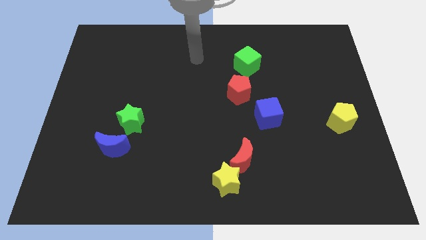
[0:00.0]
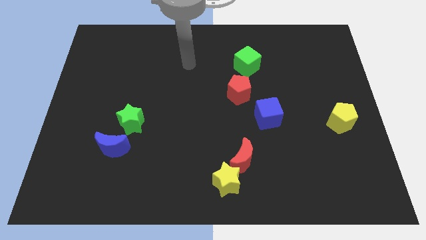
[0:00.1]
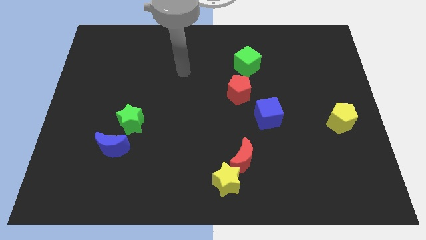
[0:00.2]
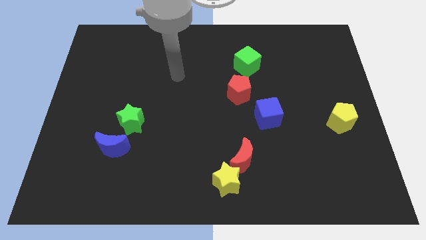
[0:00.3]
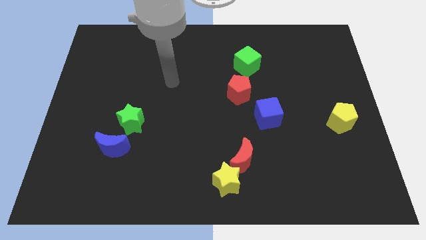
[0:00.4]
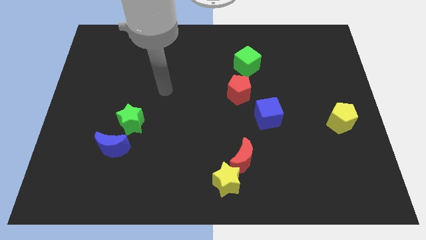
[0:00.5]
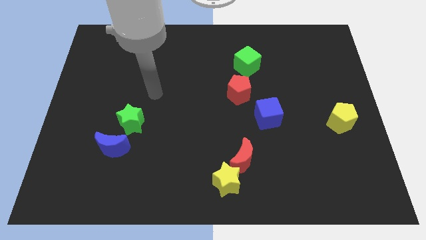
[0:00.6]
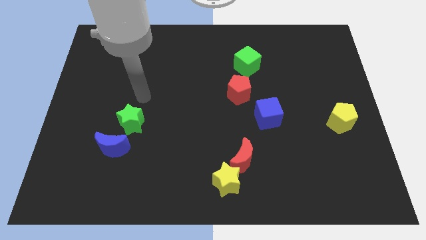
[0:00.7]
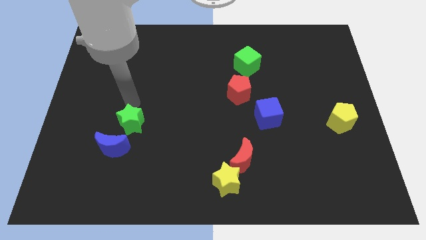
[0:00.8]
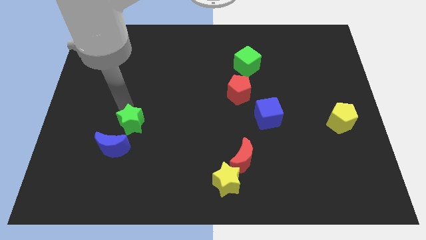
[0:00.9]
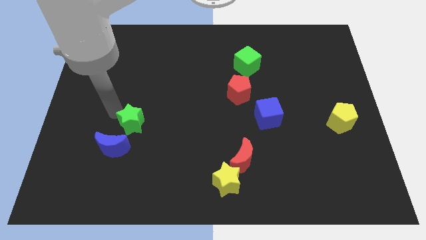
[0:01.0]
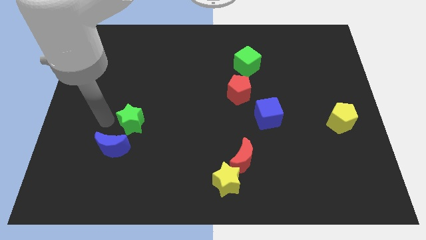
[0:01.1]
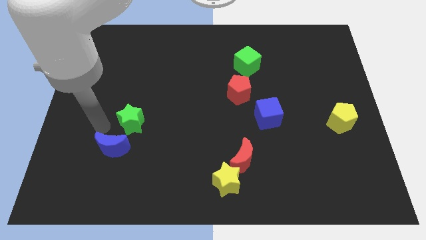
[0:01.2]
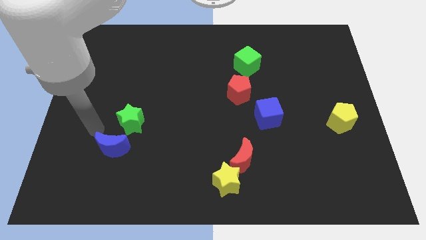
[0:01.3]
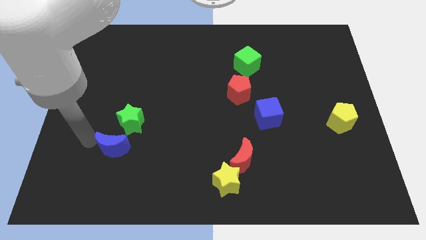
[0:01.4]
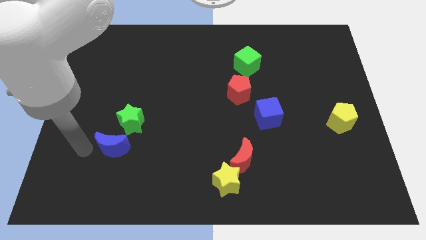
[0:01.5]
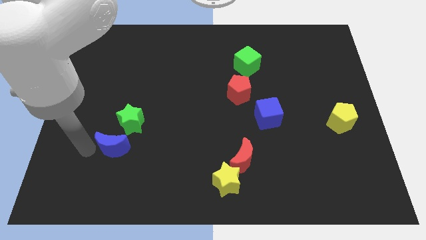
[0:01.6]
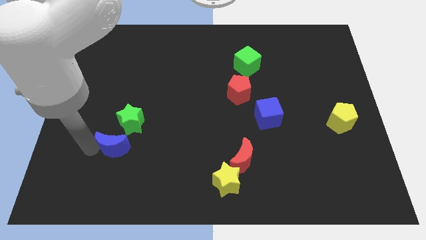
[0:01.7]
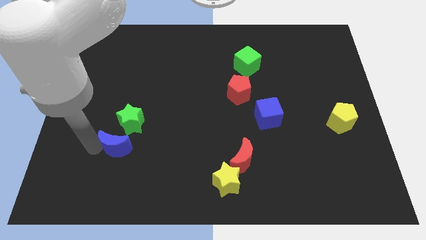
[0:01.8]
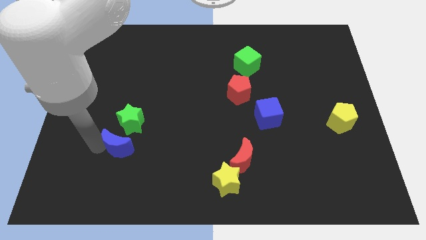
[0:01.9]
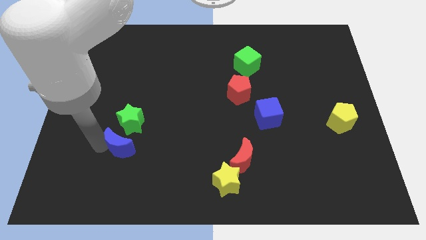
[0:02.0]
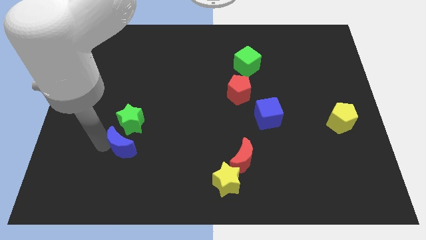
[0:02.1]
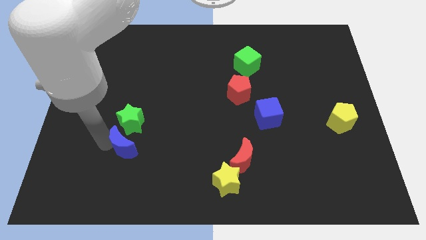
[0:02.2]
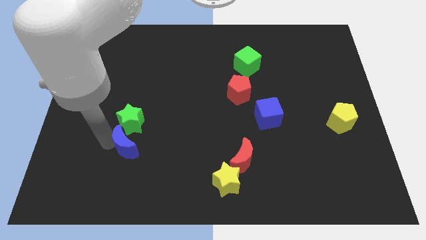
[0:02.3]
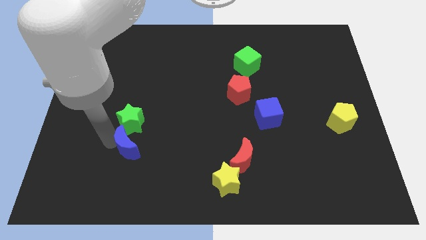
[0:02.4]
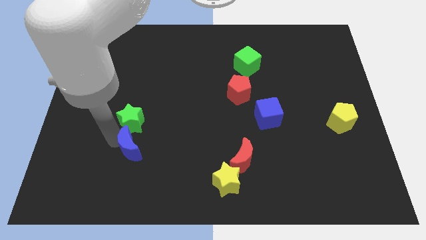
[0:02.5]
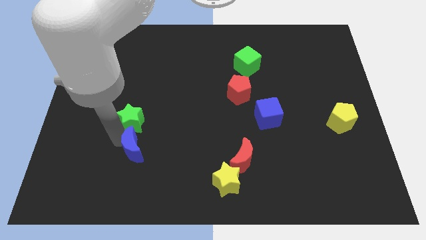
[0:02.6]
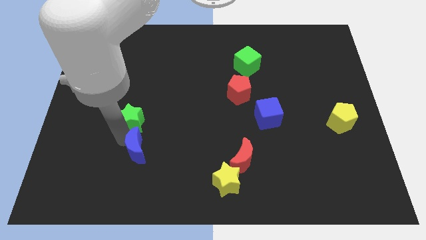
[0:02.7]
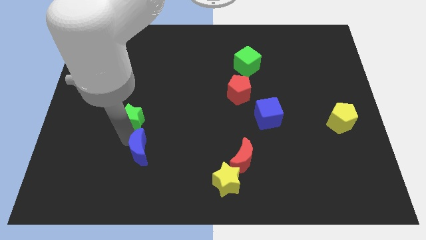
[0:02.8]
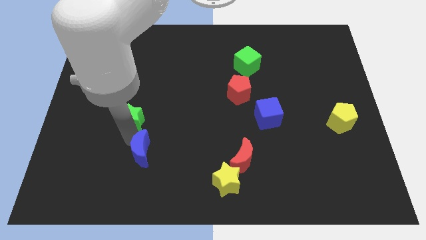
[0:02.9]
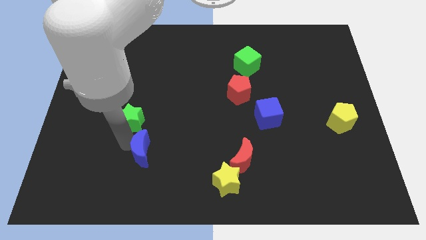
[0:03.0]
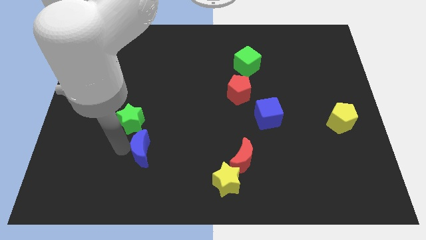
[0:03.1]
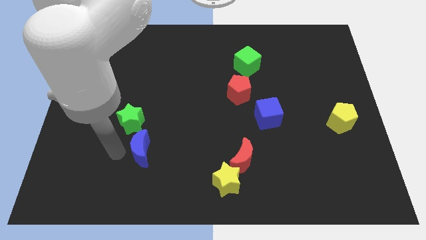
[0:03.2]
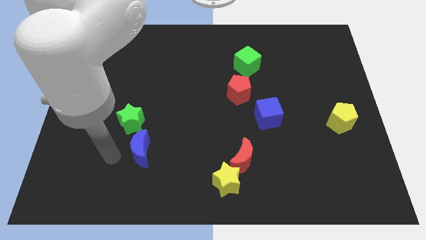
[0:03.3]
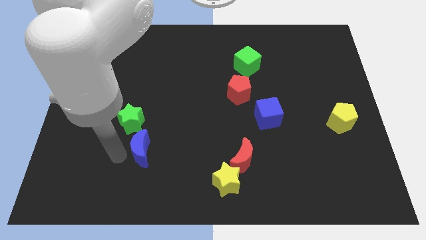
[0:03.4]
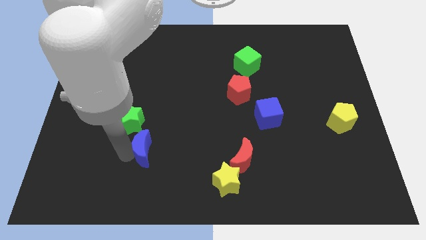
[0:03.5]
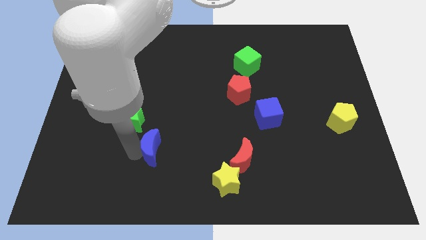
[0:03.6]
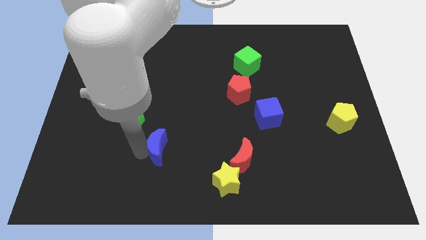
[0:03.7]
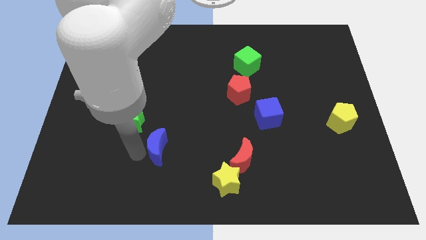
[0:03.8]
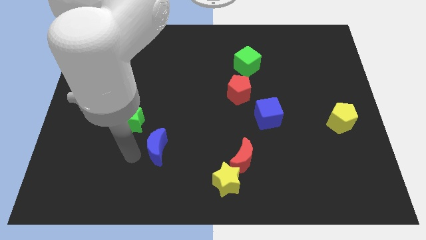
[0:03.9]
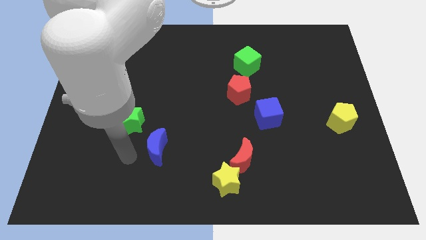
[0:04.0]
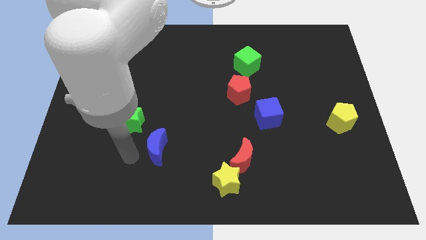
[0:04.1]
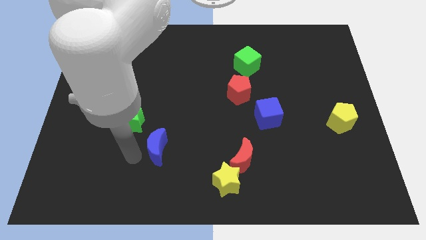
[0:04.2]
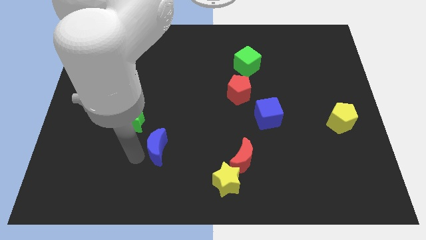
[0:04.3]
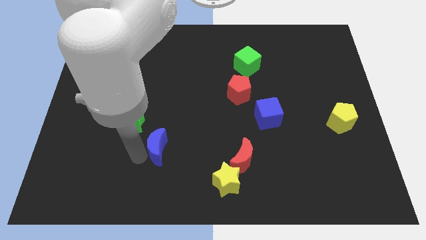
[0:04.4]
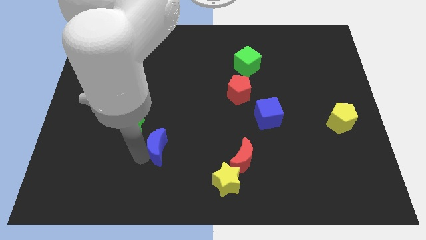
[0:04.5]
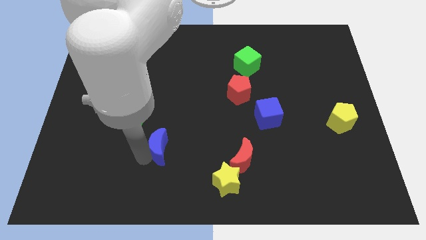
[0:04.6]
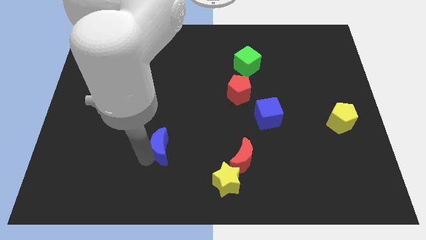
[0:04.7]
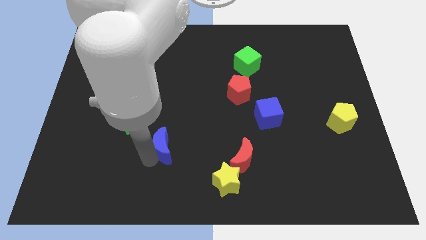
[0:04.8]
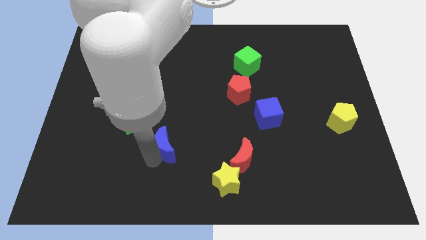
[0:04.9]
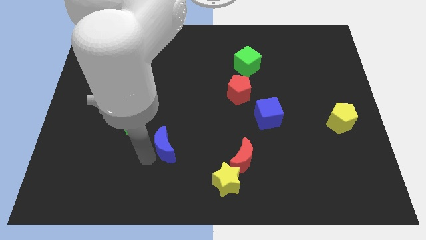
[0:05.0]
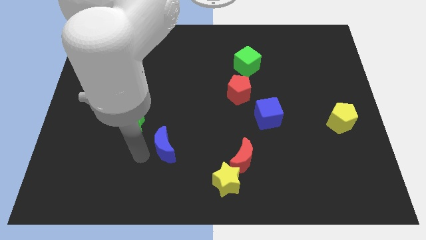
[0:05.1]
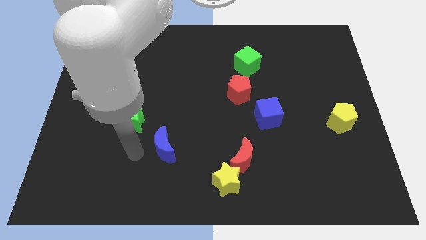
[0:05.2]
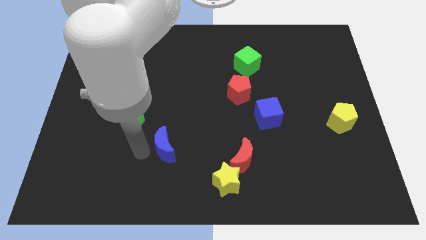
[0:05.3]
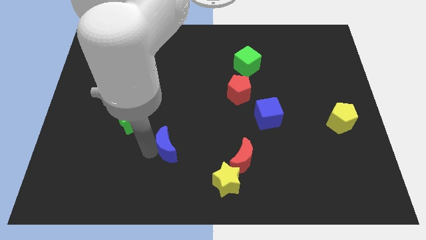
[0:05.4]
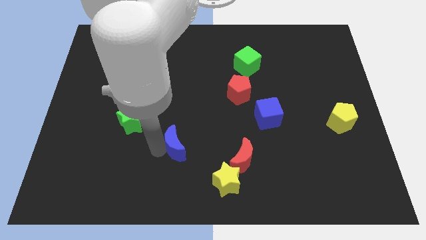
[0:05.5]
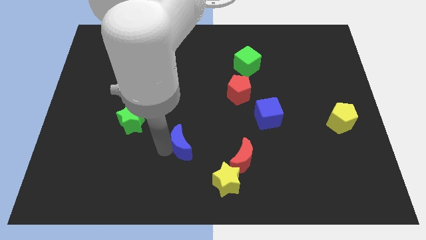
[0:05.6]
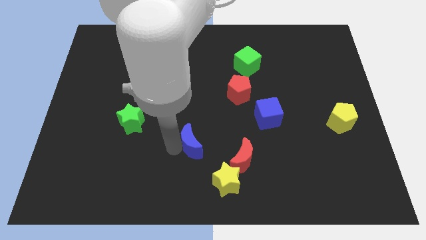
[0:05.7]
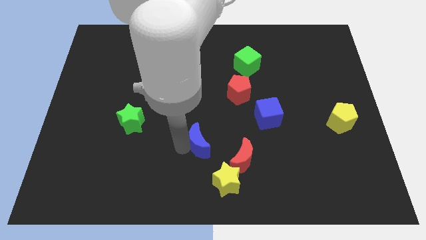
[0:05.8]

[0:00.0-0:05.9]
put the blue moon diagonally up and to the left of the red moon

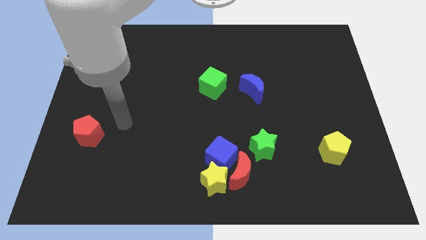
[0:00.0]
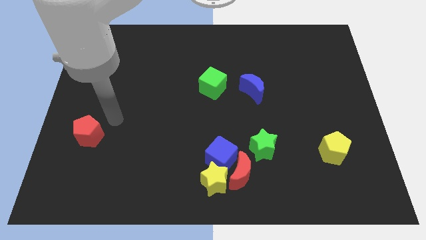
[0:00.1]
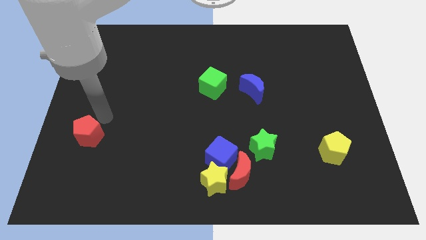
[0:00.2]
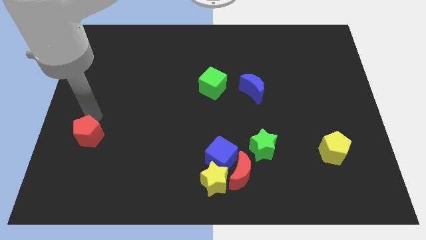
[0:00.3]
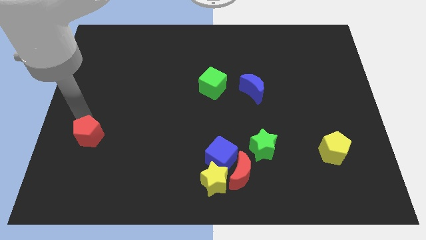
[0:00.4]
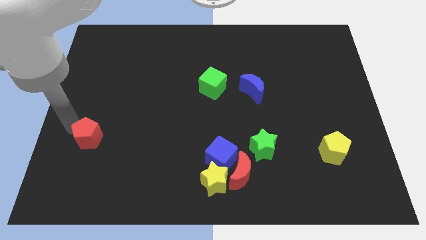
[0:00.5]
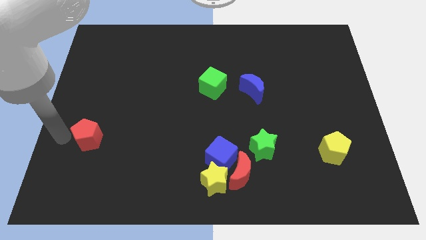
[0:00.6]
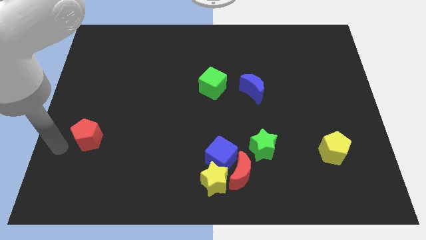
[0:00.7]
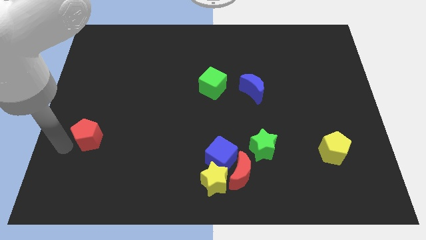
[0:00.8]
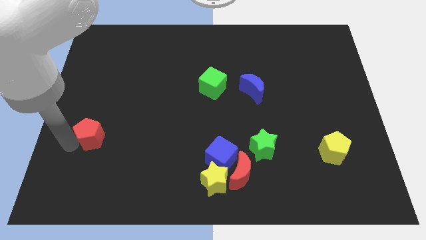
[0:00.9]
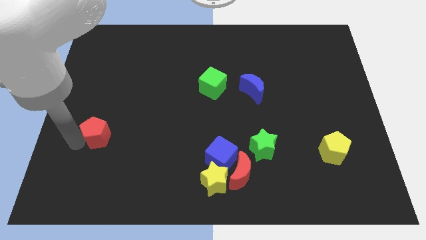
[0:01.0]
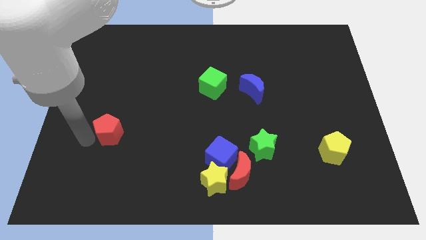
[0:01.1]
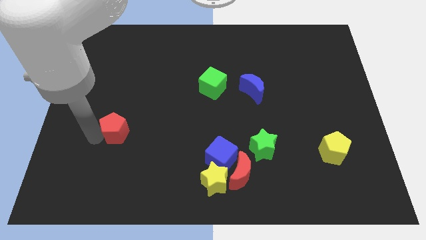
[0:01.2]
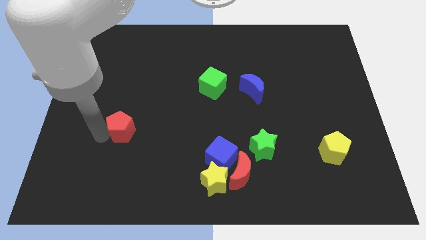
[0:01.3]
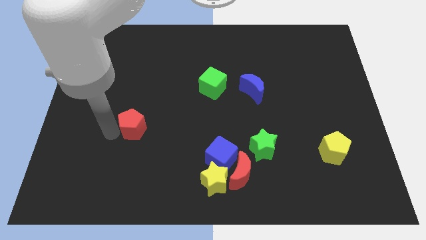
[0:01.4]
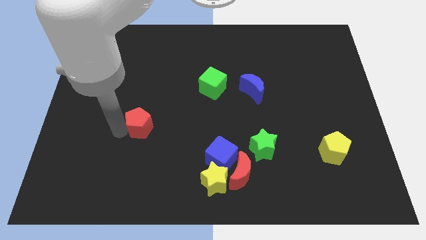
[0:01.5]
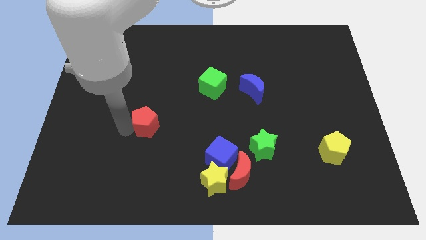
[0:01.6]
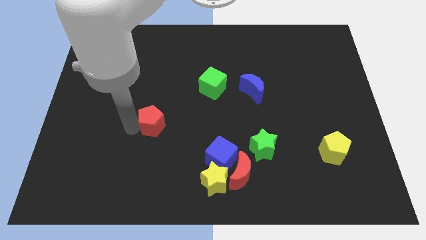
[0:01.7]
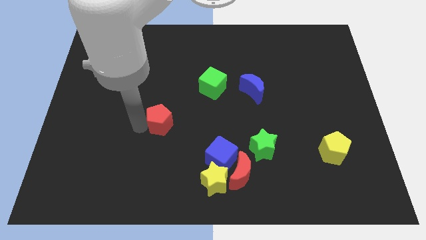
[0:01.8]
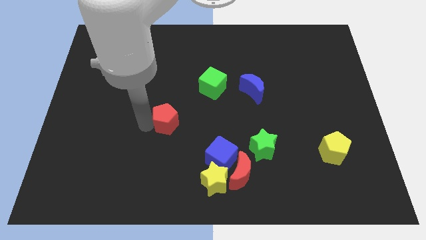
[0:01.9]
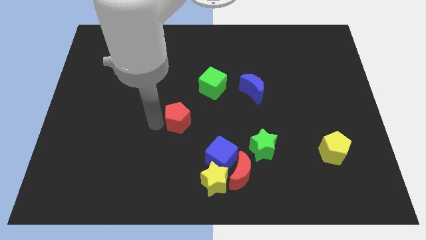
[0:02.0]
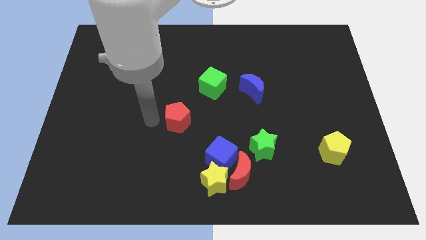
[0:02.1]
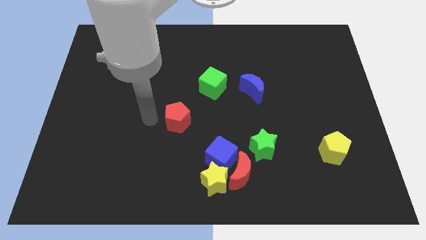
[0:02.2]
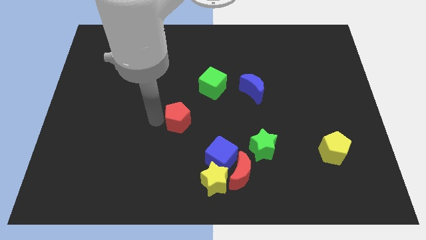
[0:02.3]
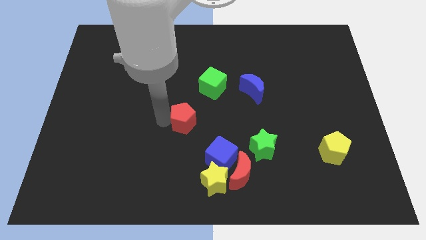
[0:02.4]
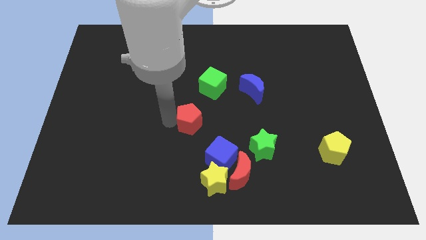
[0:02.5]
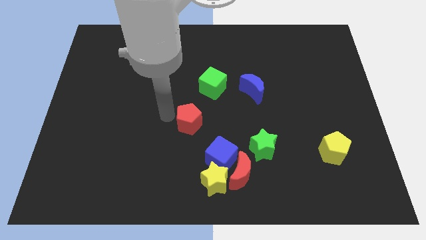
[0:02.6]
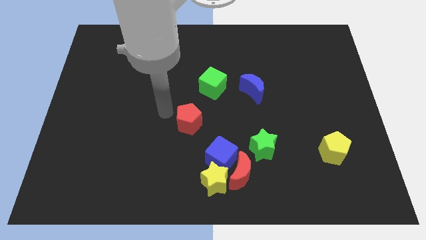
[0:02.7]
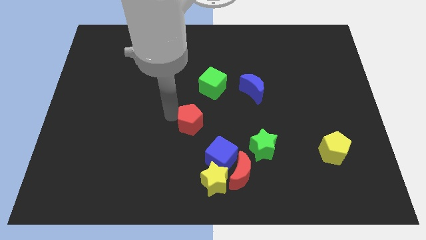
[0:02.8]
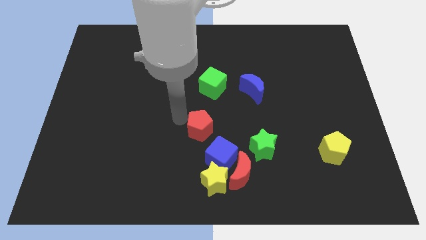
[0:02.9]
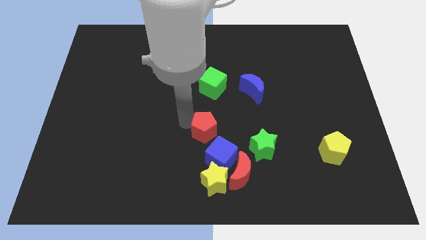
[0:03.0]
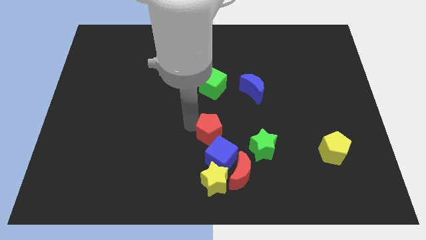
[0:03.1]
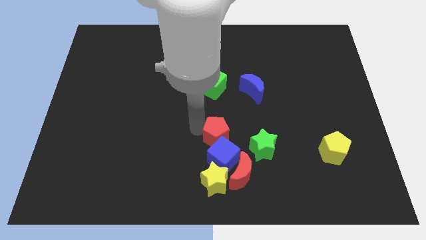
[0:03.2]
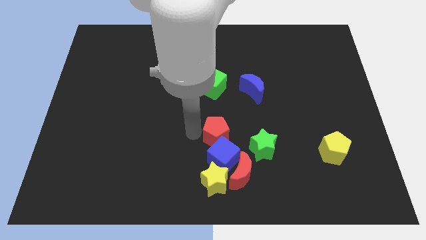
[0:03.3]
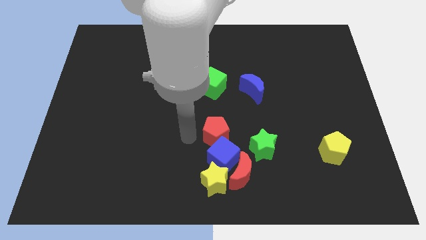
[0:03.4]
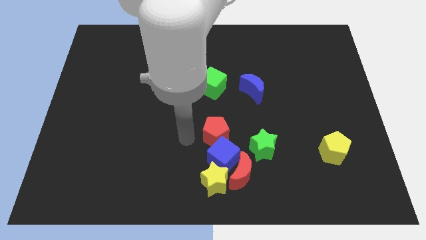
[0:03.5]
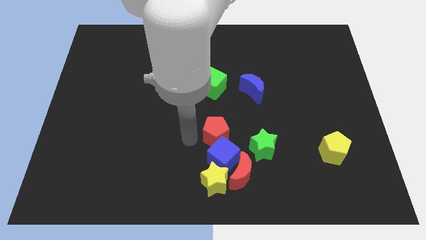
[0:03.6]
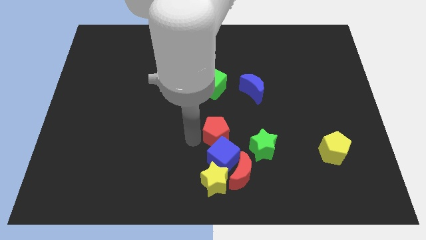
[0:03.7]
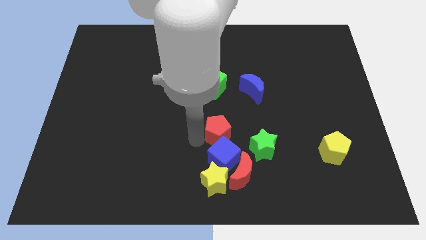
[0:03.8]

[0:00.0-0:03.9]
push the red pentagon above the red moon
